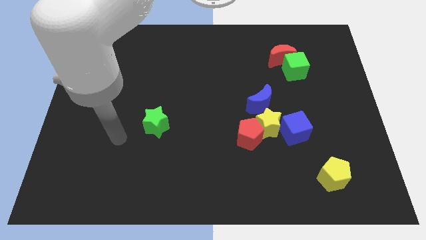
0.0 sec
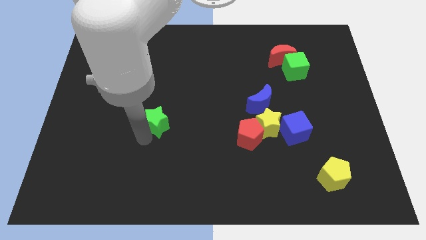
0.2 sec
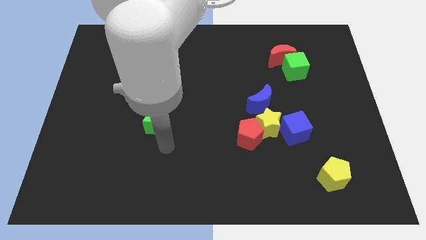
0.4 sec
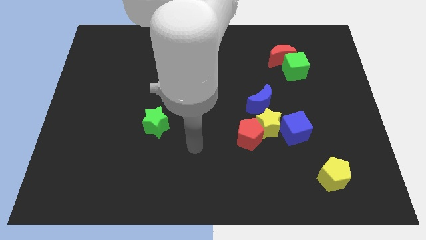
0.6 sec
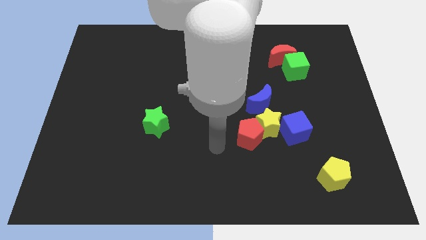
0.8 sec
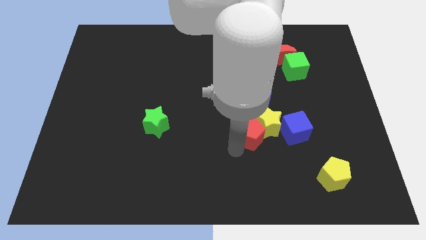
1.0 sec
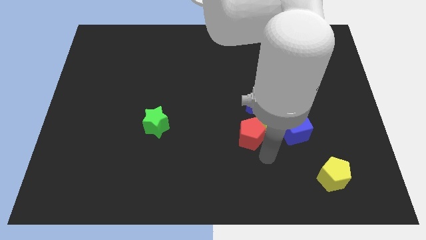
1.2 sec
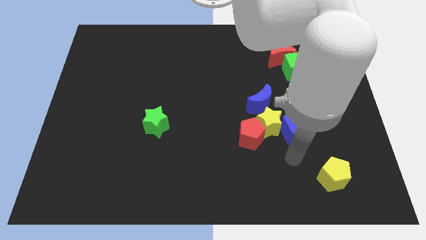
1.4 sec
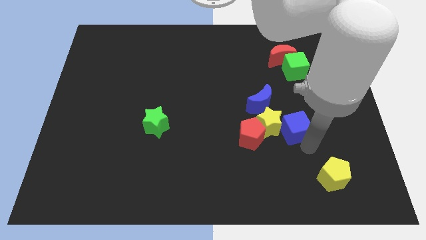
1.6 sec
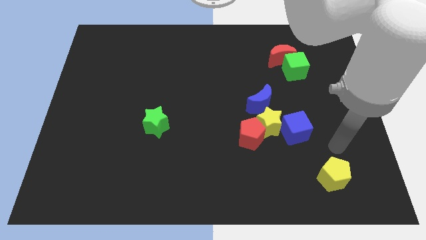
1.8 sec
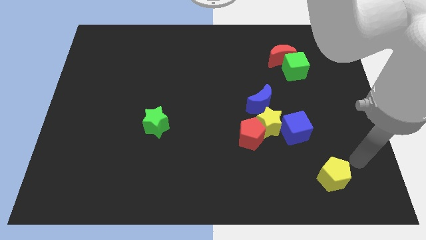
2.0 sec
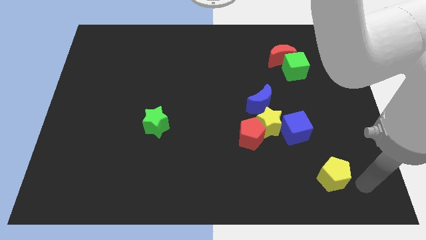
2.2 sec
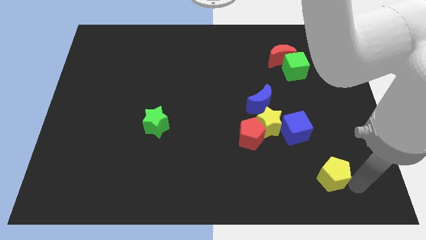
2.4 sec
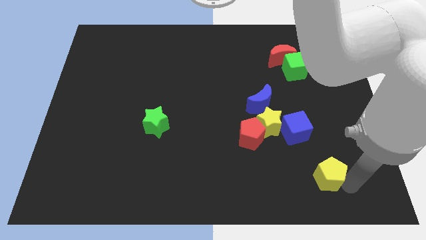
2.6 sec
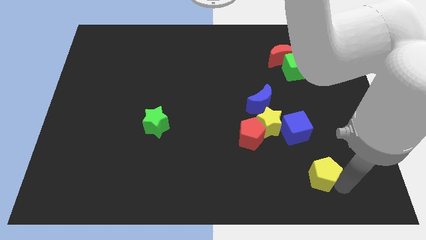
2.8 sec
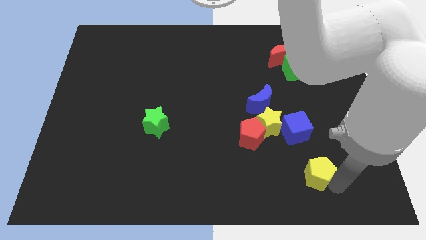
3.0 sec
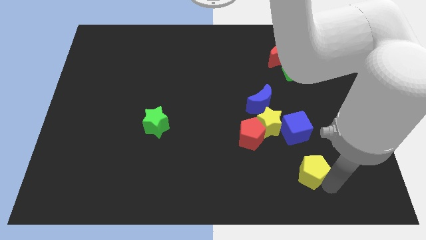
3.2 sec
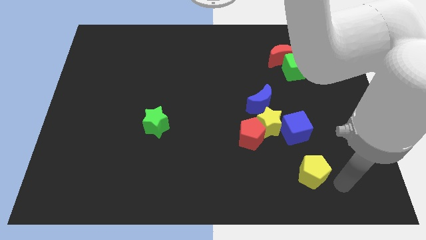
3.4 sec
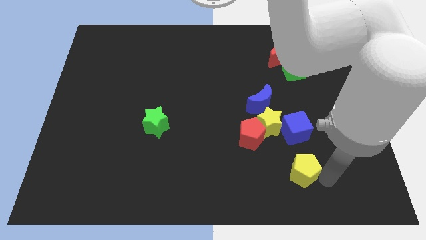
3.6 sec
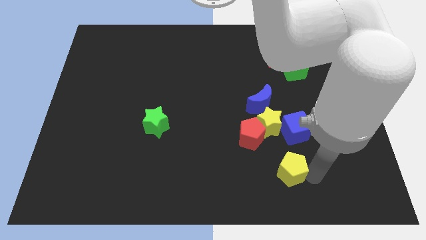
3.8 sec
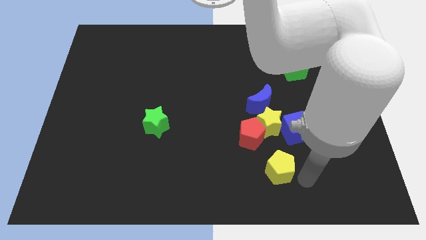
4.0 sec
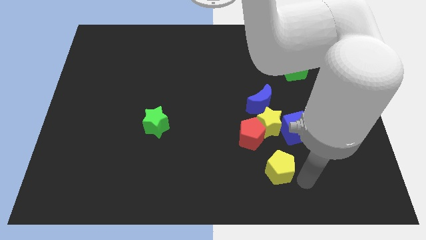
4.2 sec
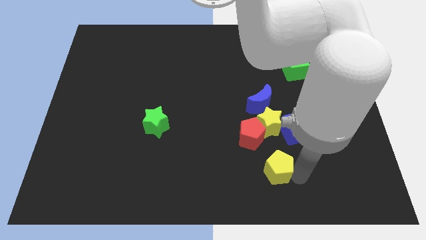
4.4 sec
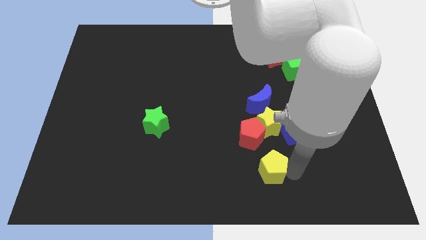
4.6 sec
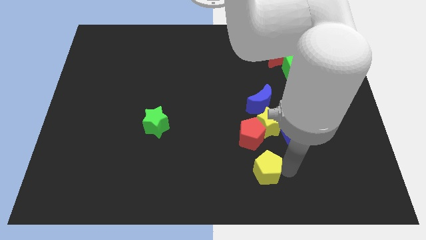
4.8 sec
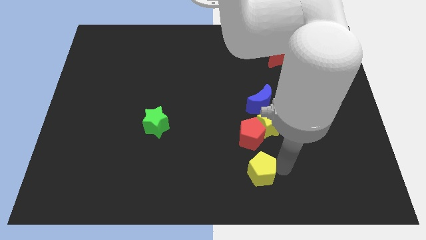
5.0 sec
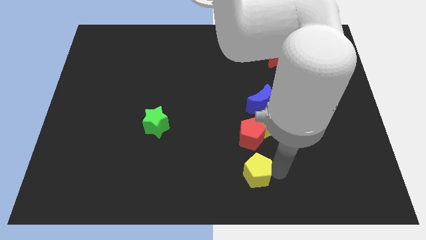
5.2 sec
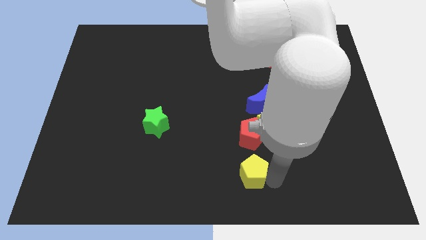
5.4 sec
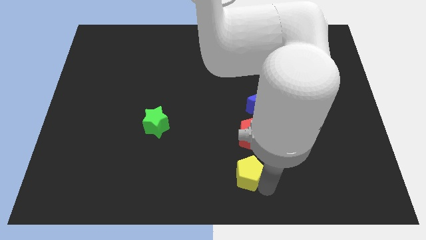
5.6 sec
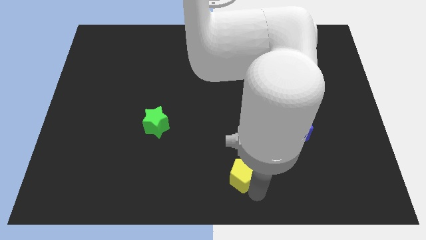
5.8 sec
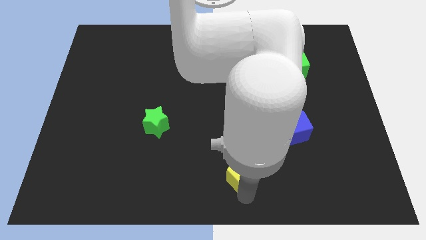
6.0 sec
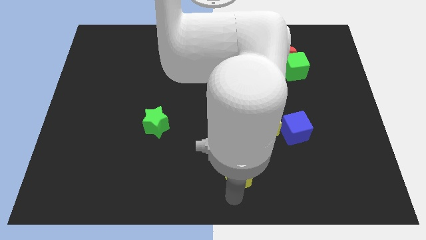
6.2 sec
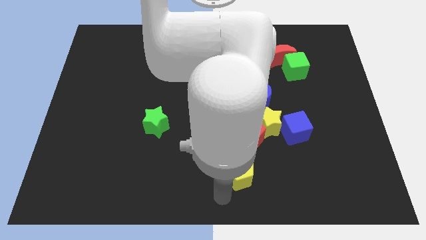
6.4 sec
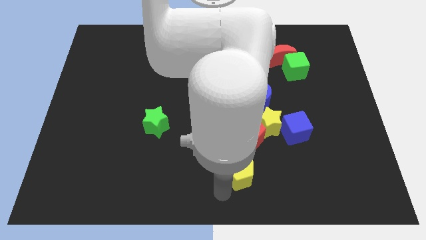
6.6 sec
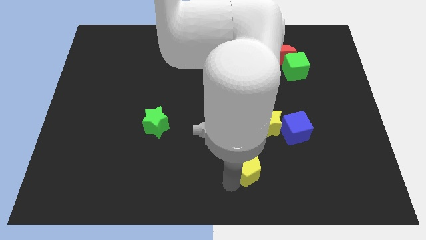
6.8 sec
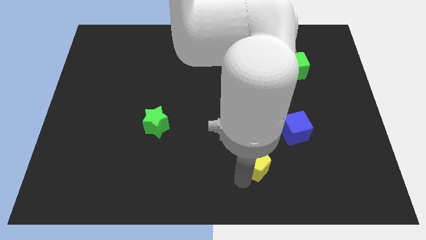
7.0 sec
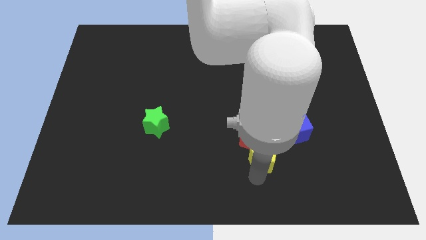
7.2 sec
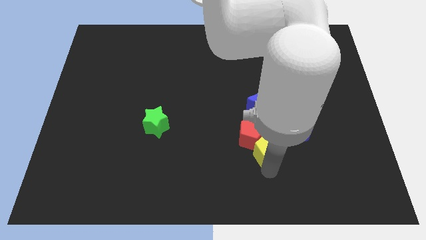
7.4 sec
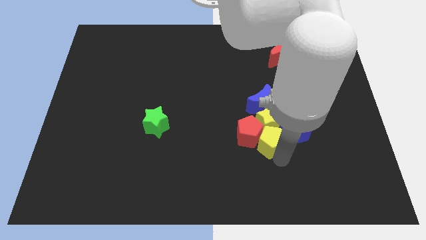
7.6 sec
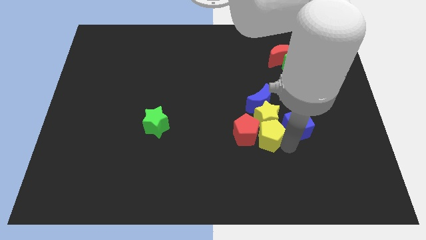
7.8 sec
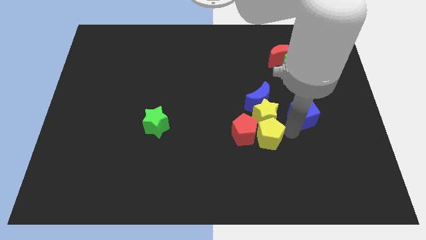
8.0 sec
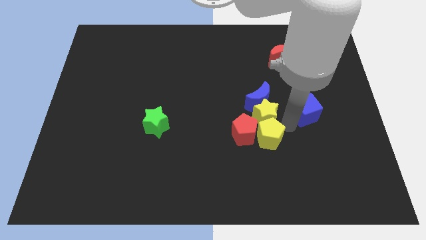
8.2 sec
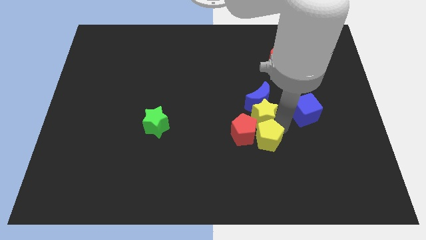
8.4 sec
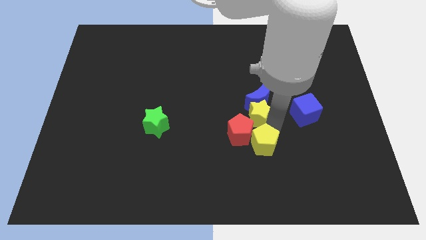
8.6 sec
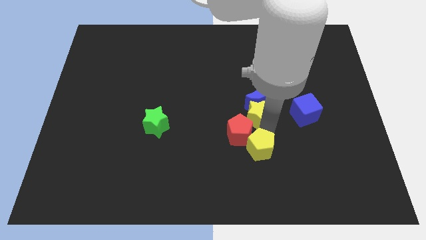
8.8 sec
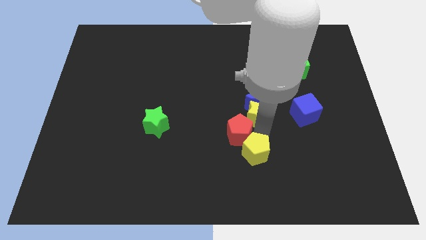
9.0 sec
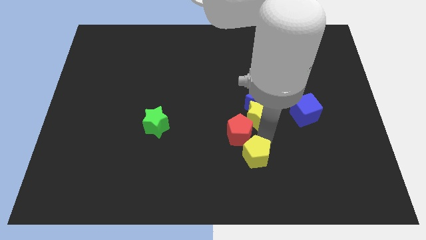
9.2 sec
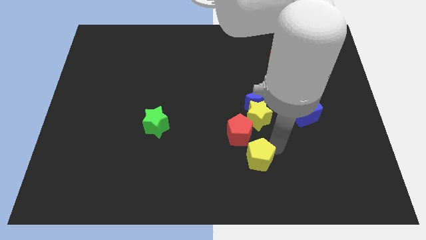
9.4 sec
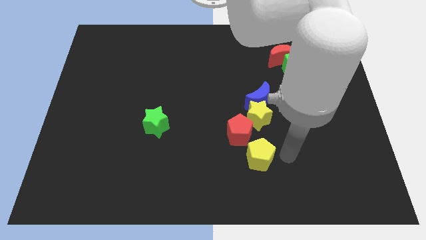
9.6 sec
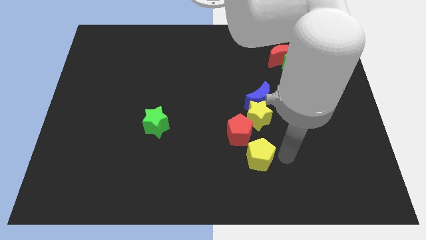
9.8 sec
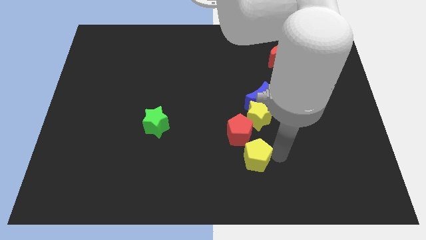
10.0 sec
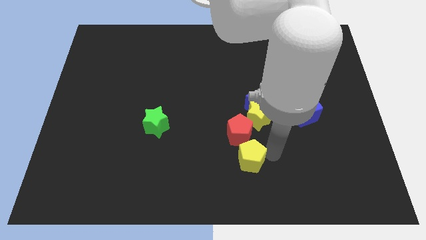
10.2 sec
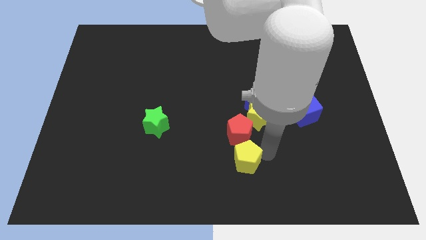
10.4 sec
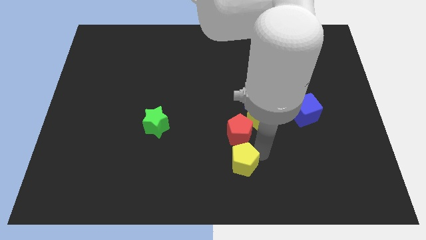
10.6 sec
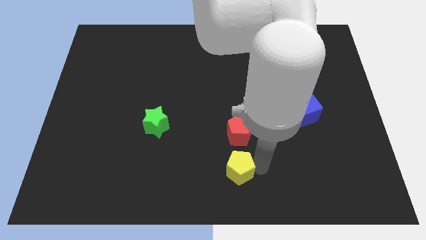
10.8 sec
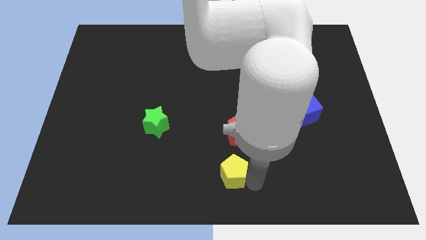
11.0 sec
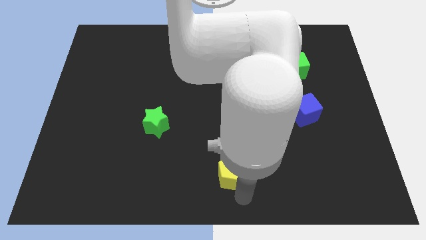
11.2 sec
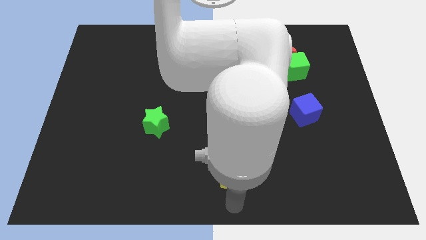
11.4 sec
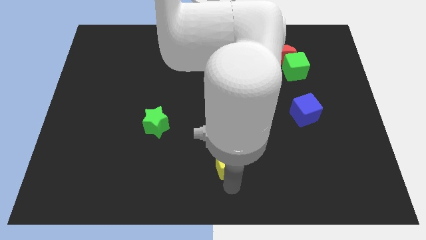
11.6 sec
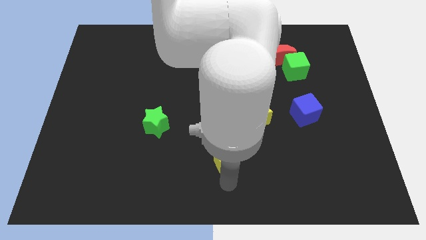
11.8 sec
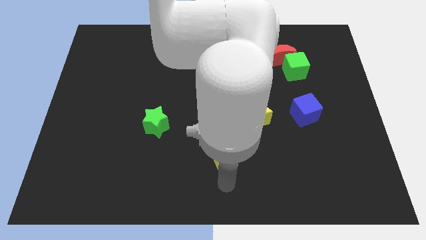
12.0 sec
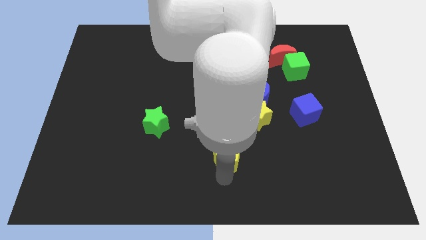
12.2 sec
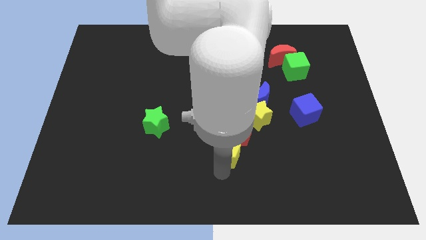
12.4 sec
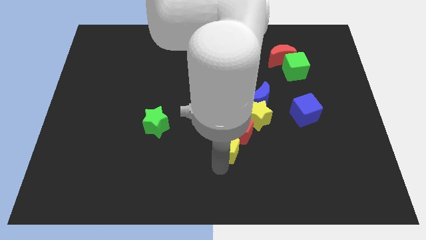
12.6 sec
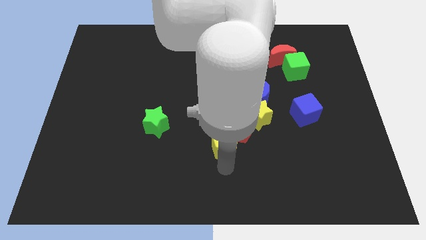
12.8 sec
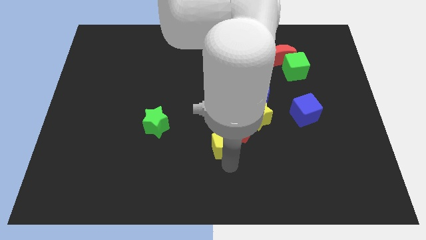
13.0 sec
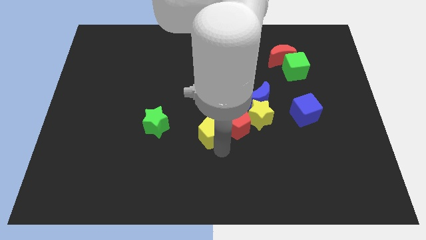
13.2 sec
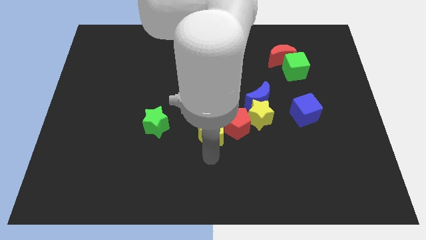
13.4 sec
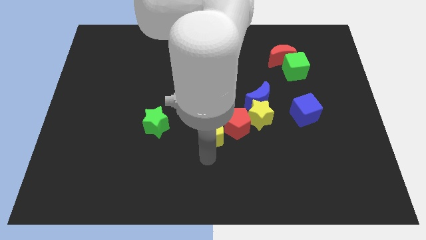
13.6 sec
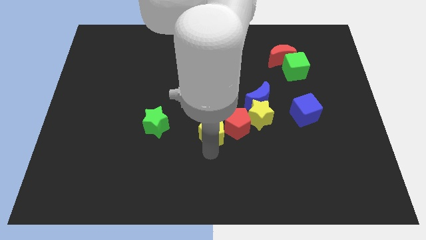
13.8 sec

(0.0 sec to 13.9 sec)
move the yellow pentagon to the left of the yellow star

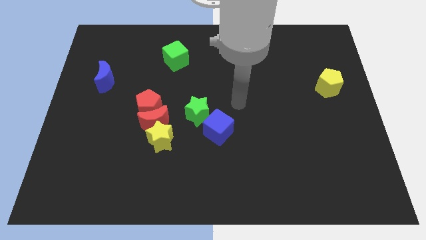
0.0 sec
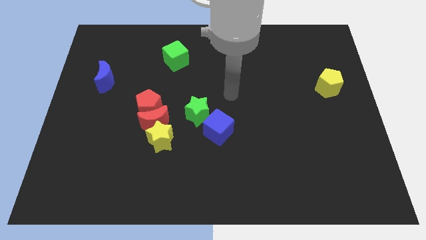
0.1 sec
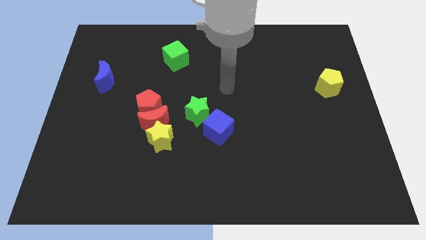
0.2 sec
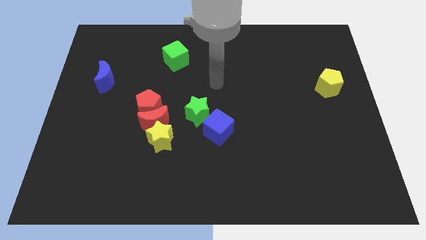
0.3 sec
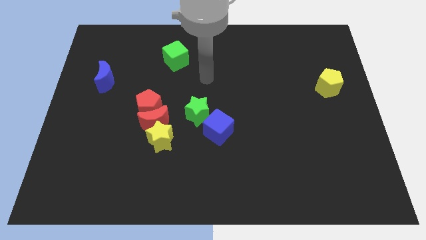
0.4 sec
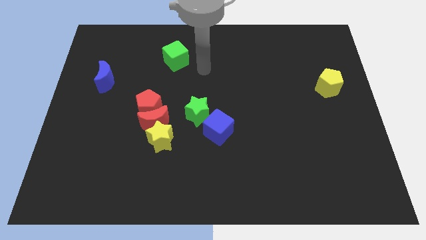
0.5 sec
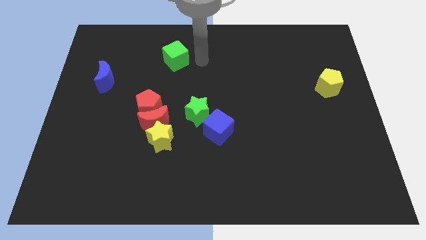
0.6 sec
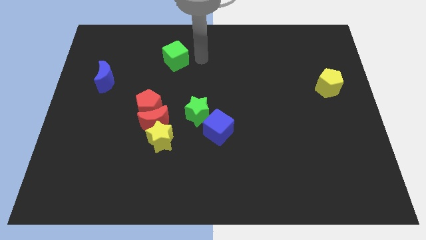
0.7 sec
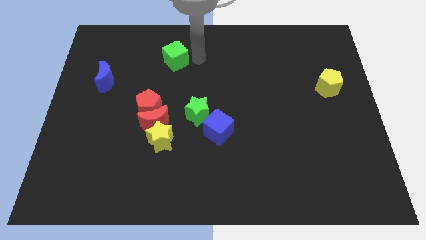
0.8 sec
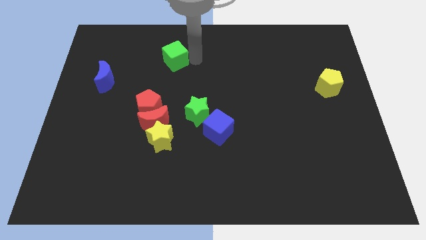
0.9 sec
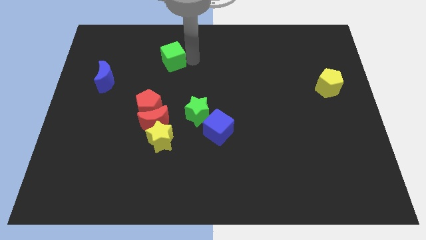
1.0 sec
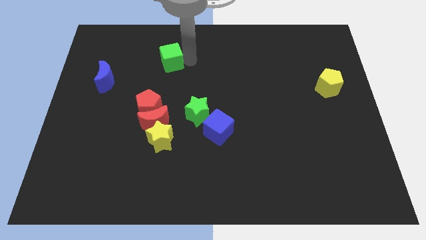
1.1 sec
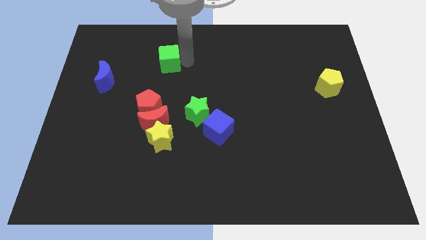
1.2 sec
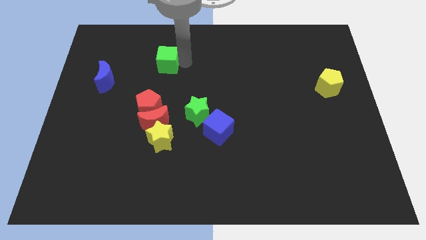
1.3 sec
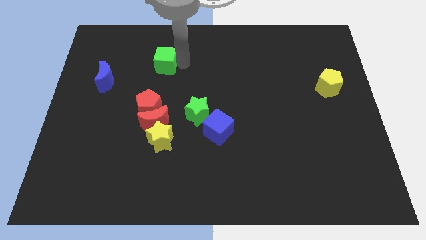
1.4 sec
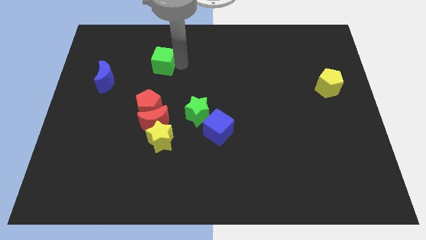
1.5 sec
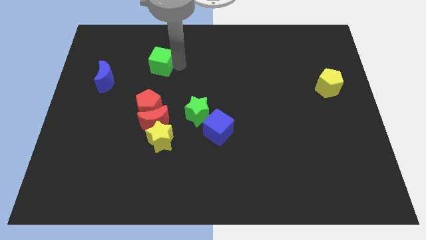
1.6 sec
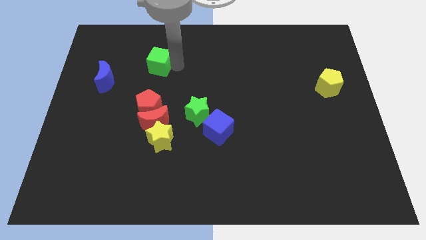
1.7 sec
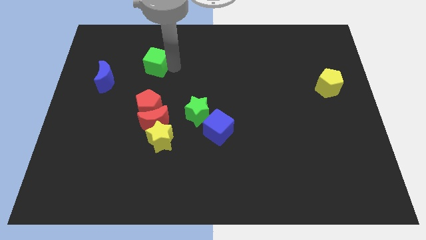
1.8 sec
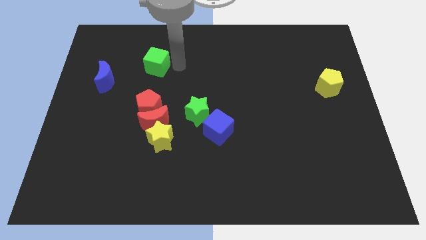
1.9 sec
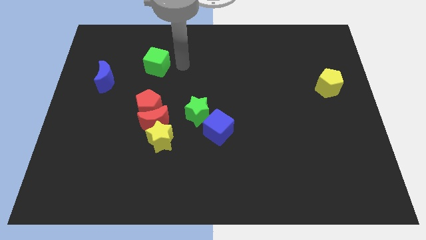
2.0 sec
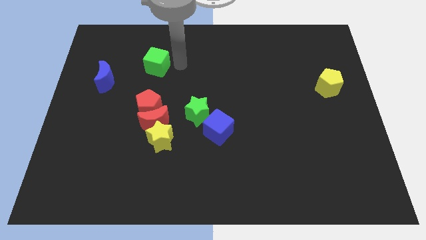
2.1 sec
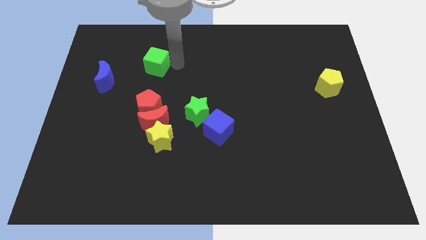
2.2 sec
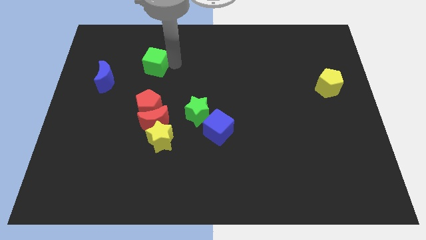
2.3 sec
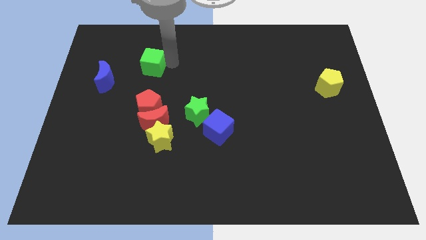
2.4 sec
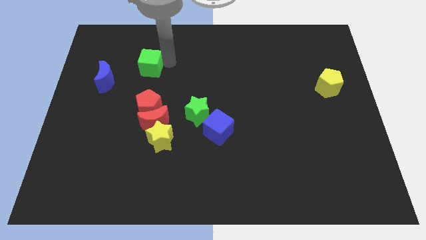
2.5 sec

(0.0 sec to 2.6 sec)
push the green cube to the top right of the blue moon
